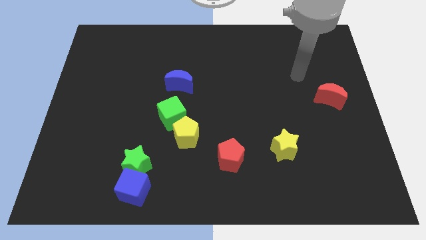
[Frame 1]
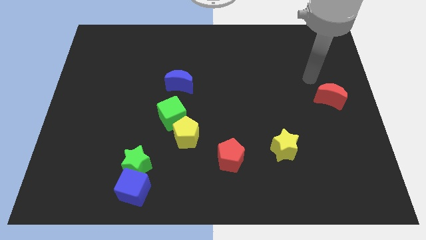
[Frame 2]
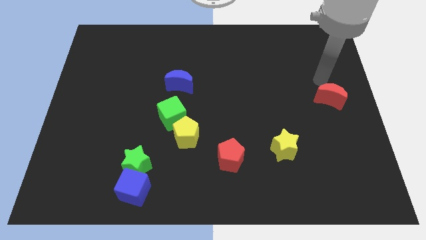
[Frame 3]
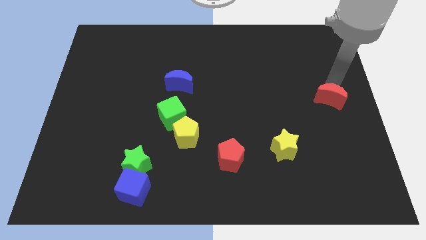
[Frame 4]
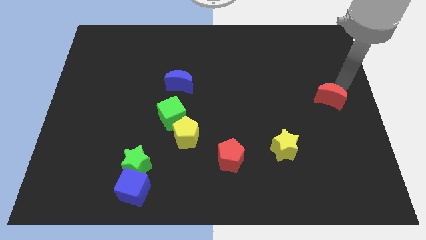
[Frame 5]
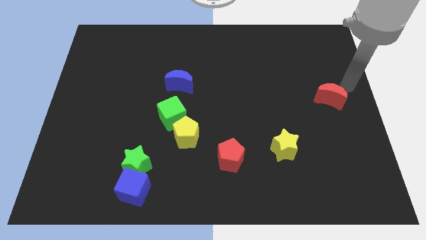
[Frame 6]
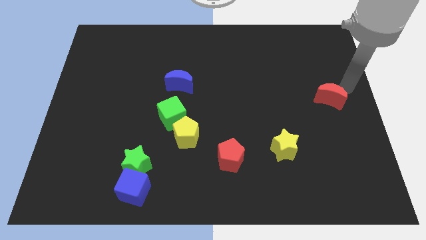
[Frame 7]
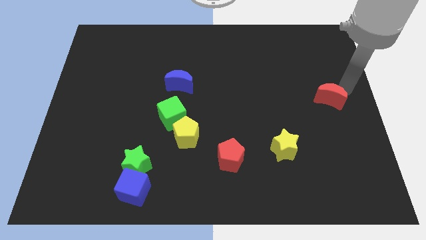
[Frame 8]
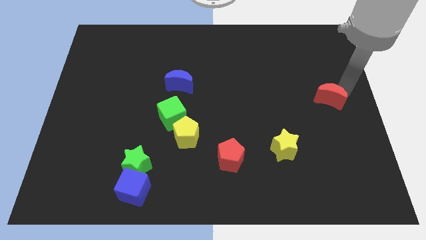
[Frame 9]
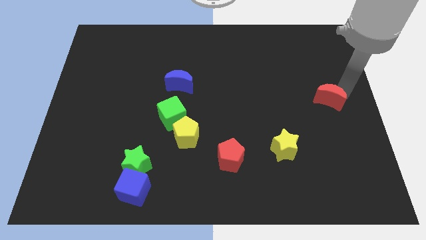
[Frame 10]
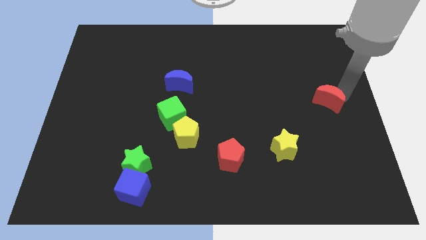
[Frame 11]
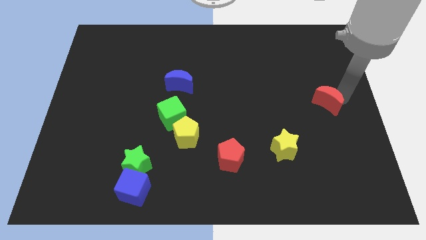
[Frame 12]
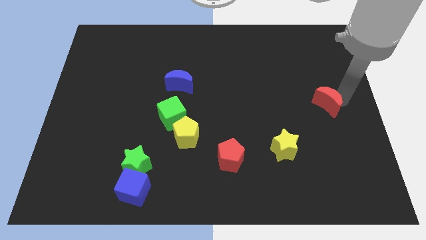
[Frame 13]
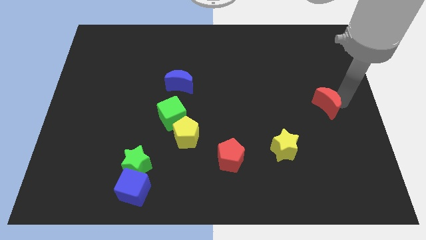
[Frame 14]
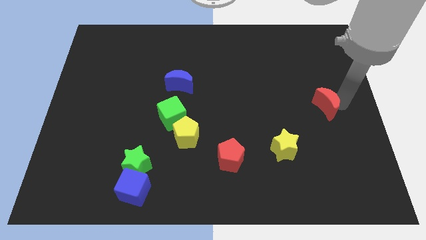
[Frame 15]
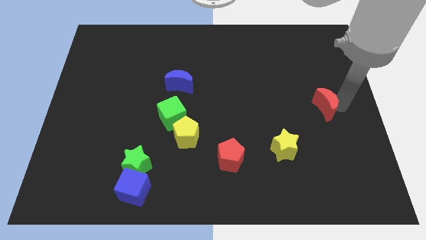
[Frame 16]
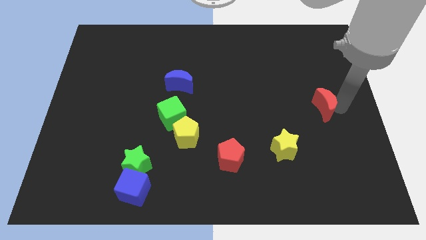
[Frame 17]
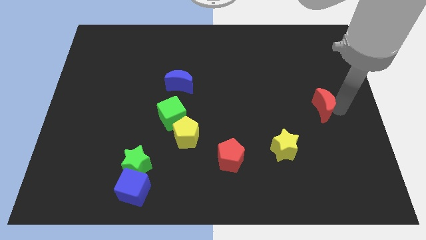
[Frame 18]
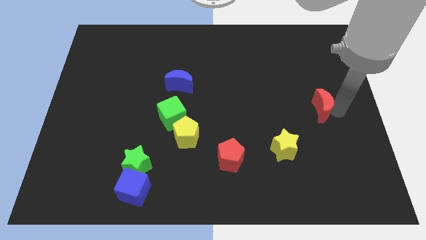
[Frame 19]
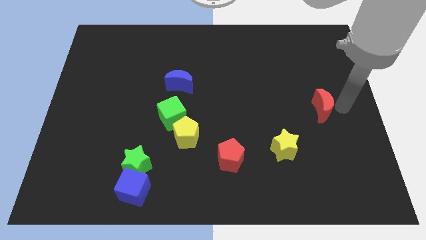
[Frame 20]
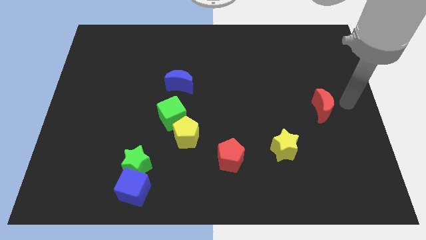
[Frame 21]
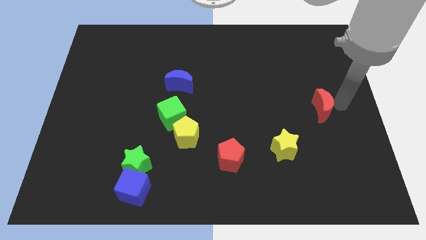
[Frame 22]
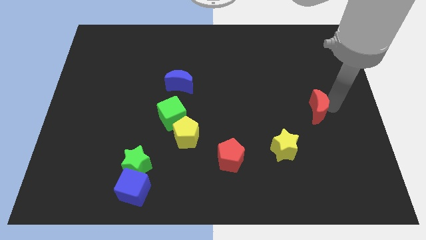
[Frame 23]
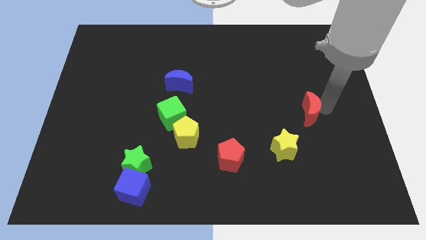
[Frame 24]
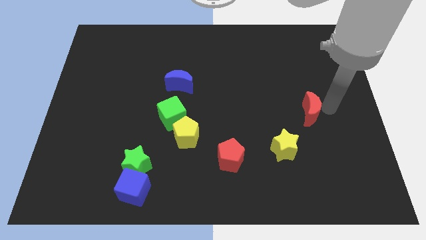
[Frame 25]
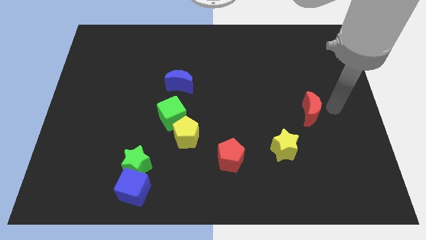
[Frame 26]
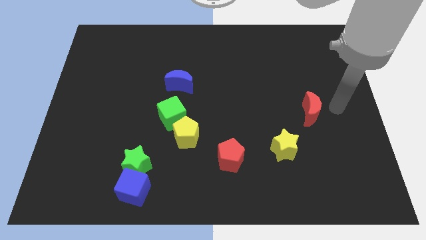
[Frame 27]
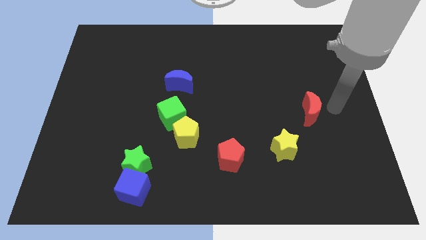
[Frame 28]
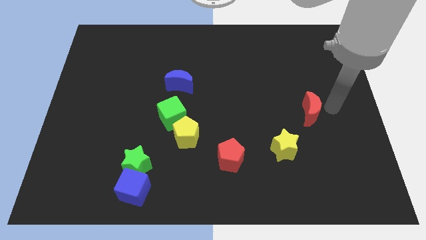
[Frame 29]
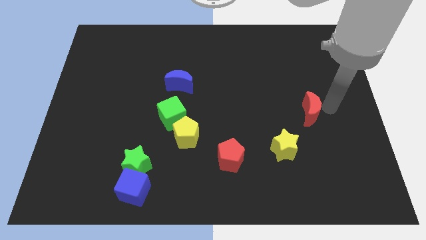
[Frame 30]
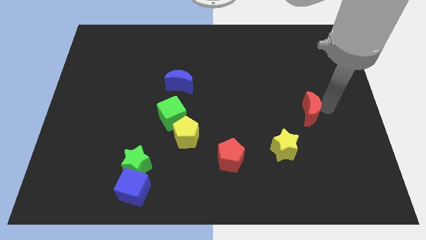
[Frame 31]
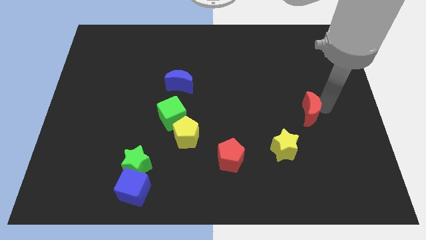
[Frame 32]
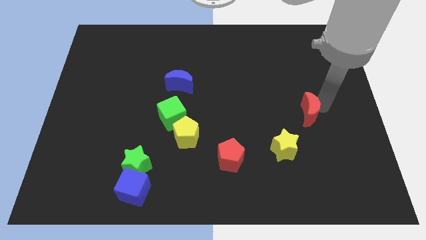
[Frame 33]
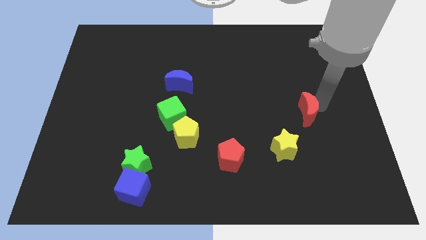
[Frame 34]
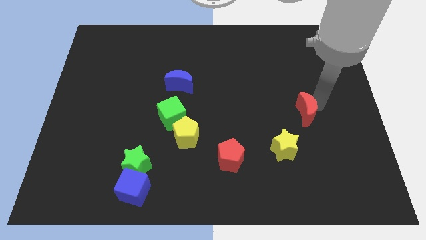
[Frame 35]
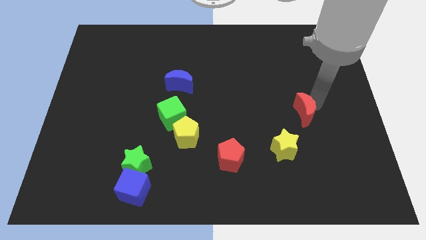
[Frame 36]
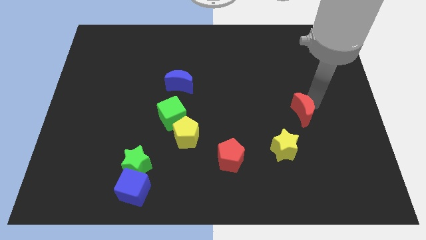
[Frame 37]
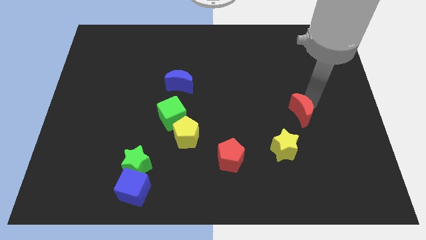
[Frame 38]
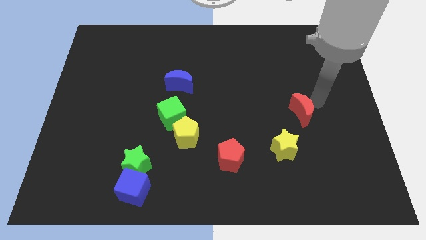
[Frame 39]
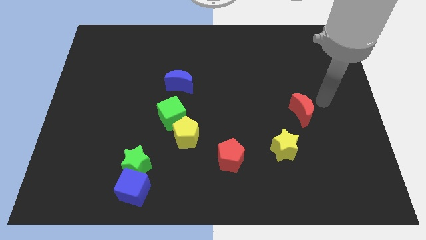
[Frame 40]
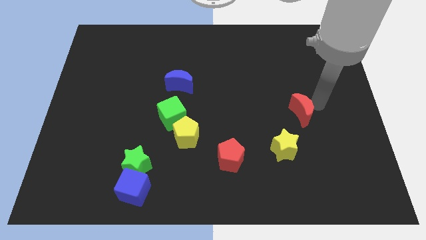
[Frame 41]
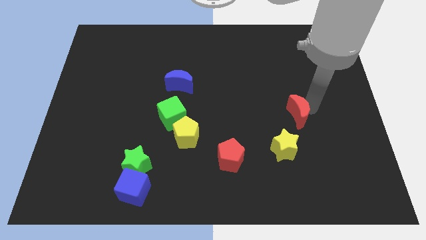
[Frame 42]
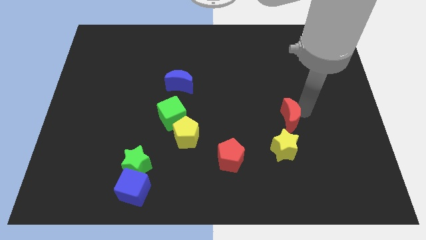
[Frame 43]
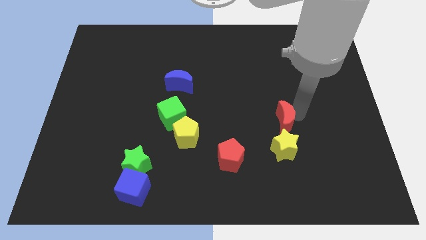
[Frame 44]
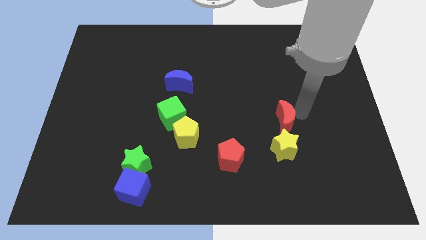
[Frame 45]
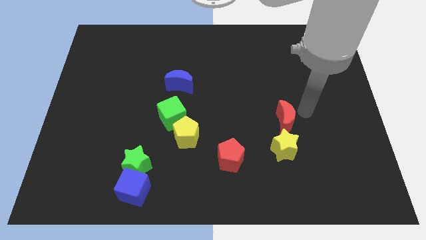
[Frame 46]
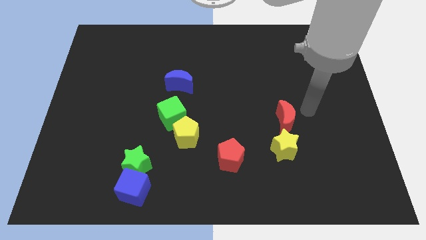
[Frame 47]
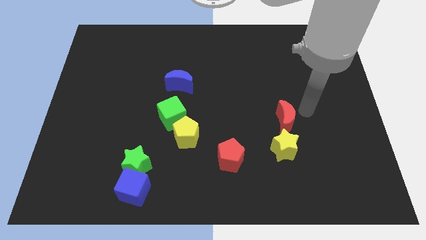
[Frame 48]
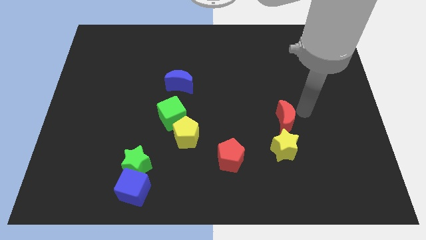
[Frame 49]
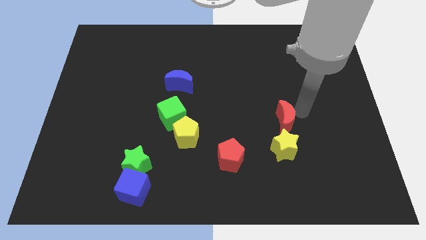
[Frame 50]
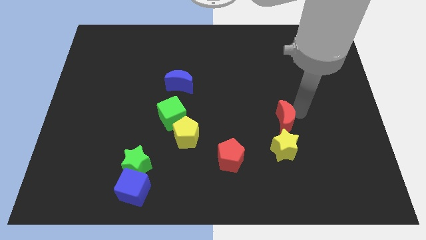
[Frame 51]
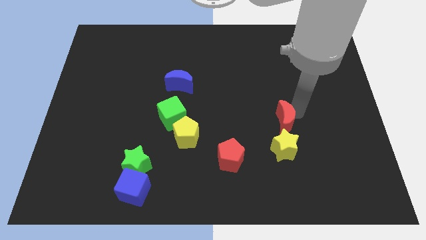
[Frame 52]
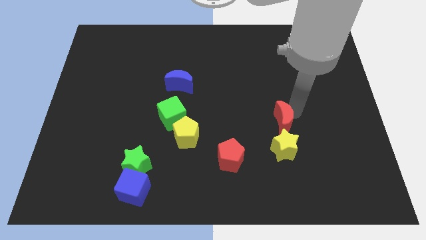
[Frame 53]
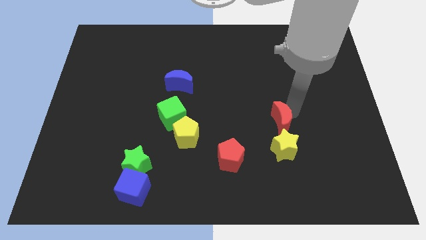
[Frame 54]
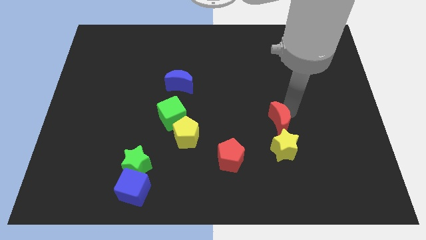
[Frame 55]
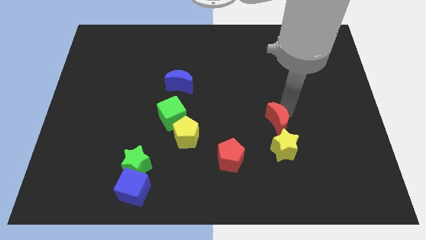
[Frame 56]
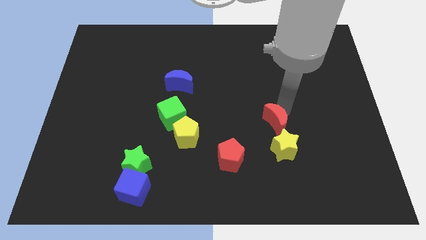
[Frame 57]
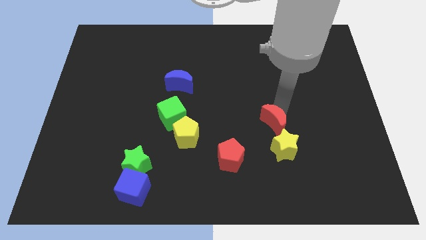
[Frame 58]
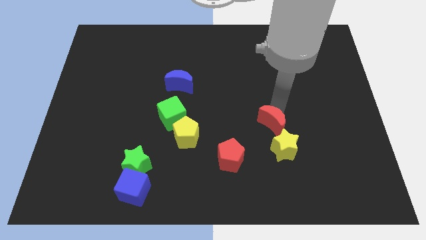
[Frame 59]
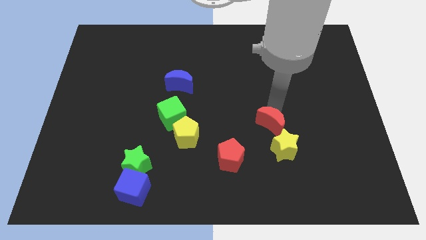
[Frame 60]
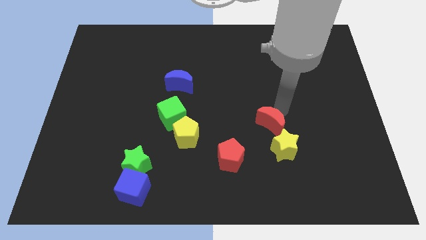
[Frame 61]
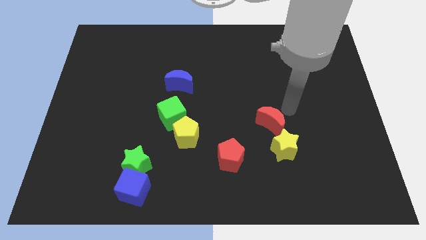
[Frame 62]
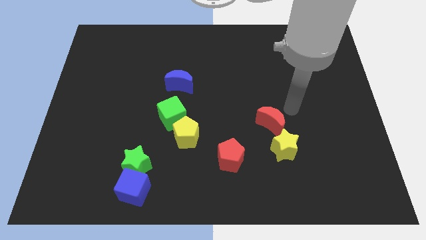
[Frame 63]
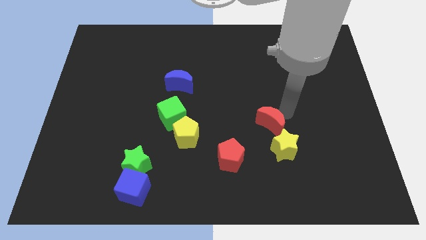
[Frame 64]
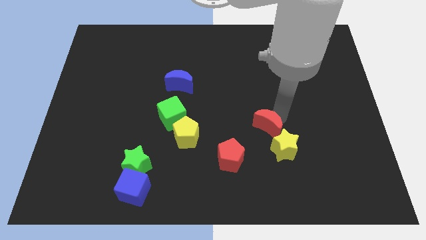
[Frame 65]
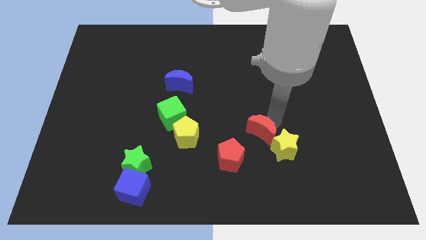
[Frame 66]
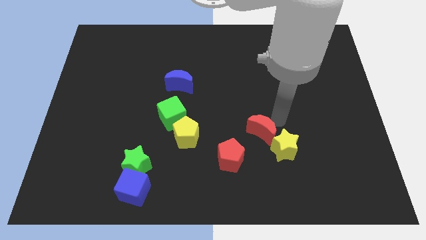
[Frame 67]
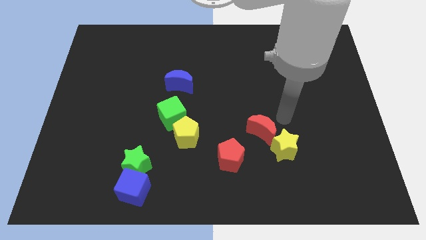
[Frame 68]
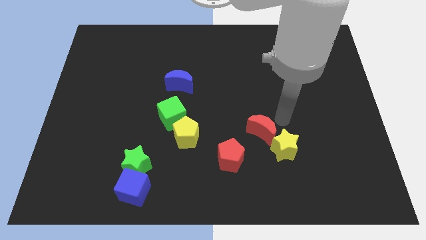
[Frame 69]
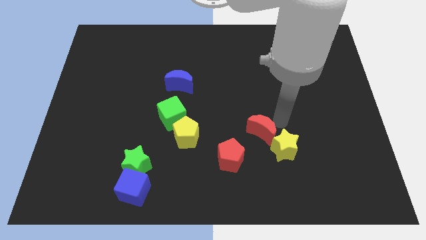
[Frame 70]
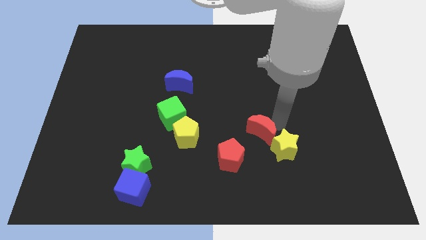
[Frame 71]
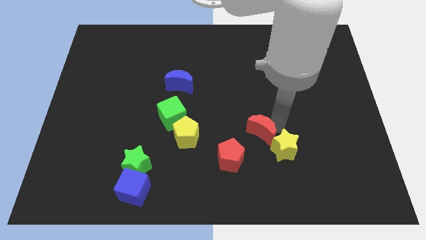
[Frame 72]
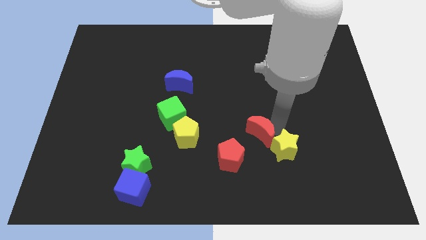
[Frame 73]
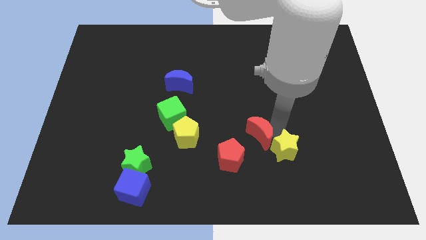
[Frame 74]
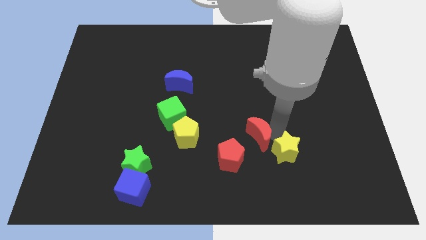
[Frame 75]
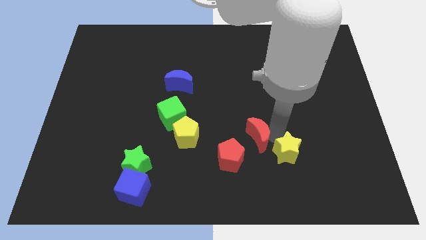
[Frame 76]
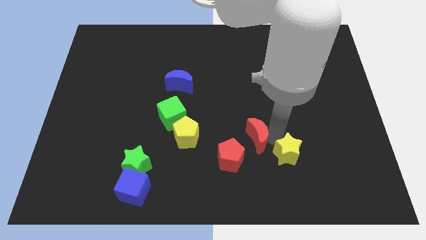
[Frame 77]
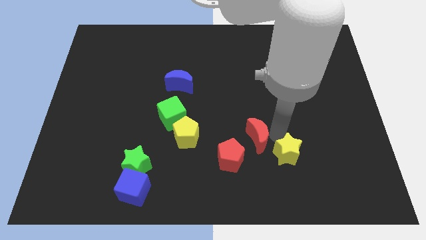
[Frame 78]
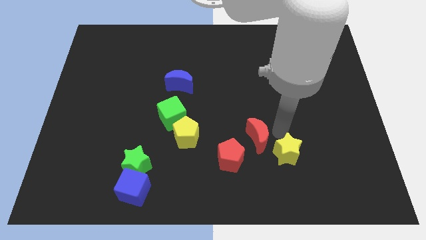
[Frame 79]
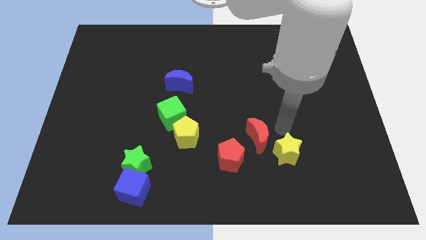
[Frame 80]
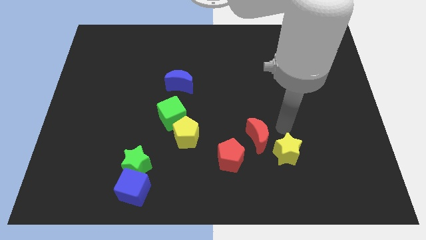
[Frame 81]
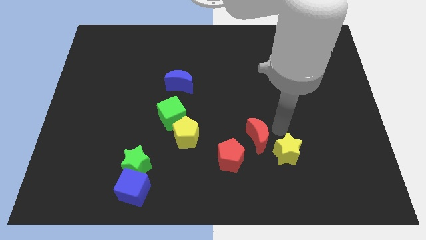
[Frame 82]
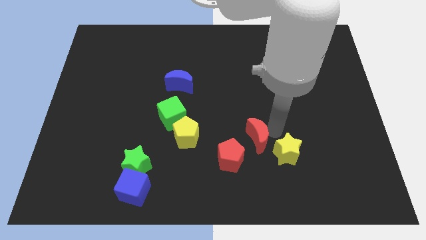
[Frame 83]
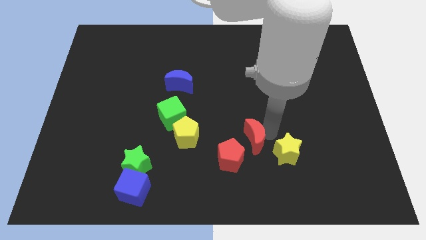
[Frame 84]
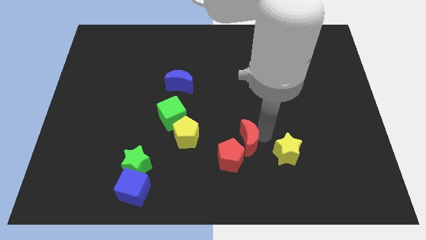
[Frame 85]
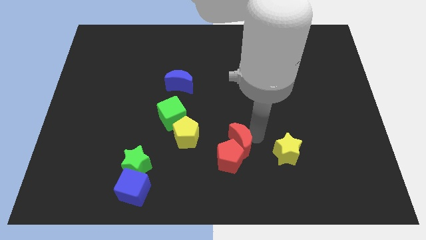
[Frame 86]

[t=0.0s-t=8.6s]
slide the red moon close to the red pentagon
